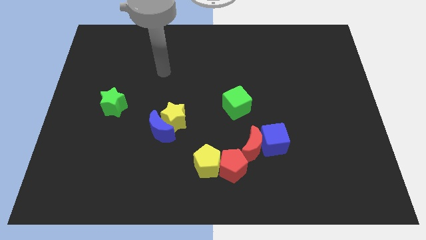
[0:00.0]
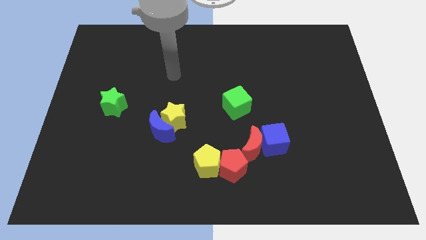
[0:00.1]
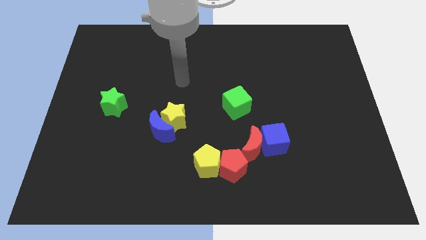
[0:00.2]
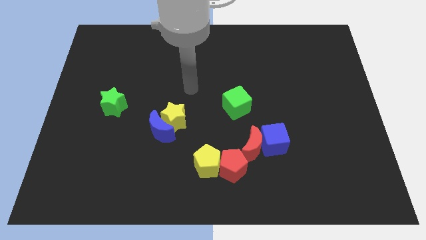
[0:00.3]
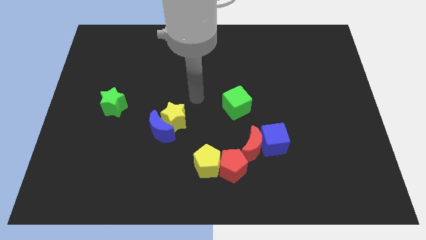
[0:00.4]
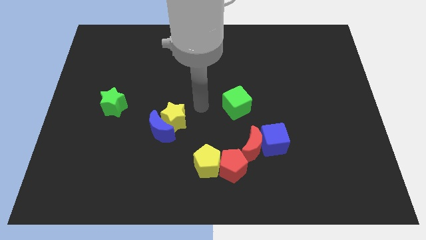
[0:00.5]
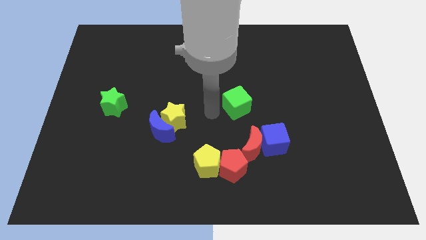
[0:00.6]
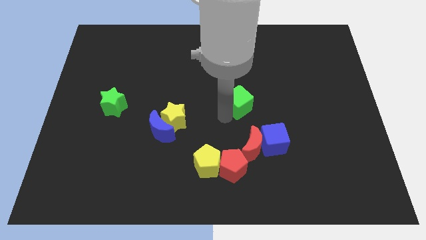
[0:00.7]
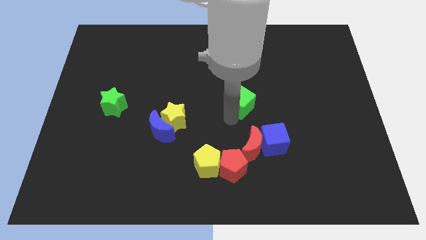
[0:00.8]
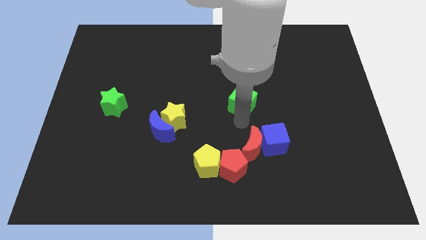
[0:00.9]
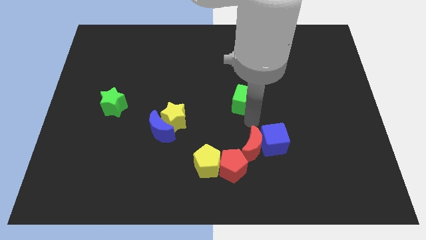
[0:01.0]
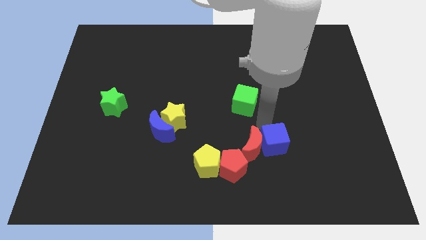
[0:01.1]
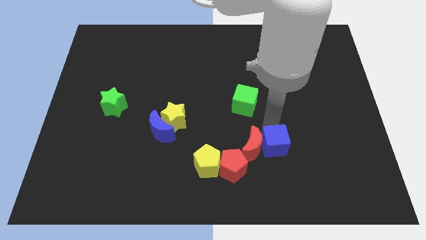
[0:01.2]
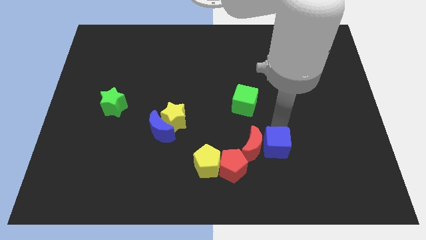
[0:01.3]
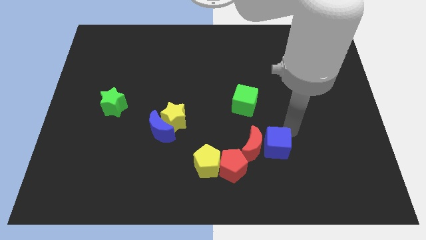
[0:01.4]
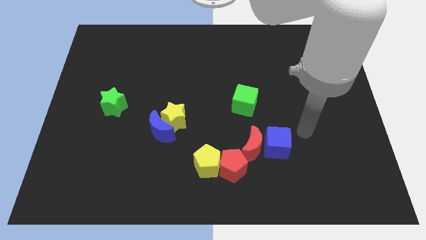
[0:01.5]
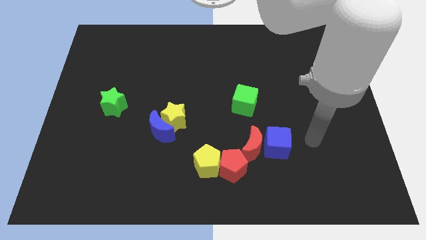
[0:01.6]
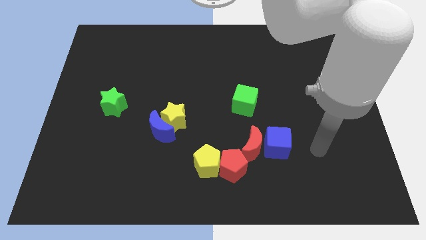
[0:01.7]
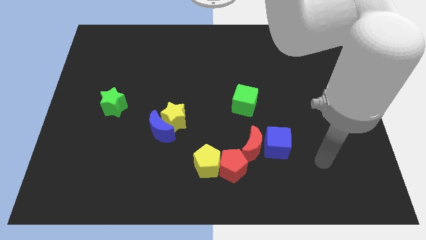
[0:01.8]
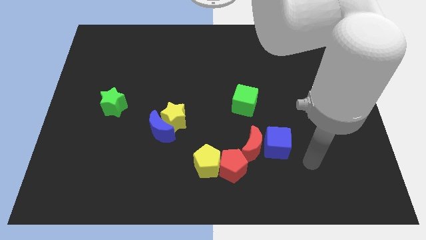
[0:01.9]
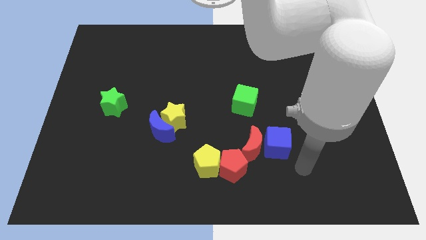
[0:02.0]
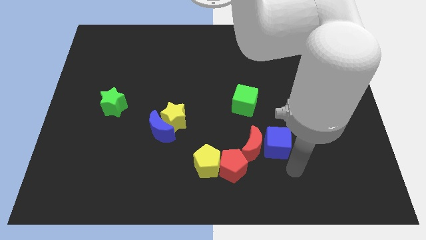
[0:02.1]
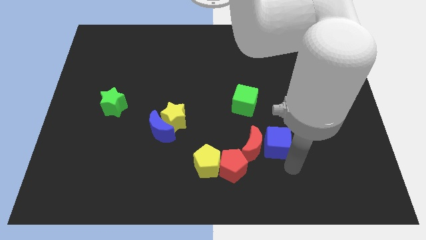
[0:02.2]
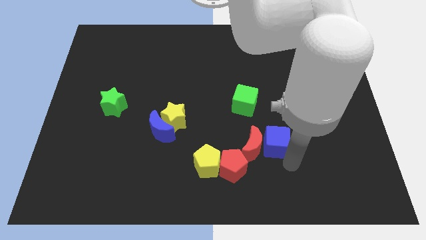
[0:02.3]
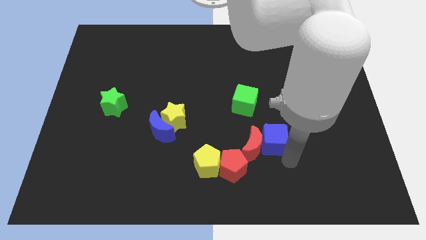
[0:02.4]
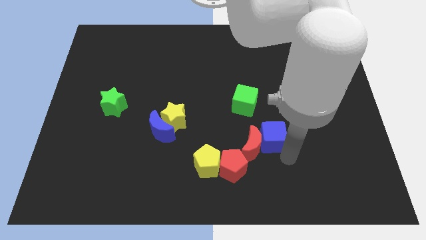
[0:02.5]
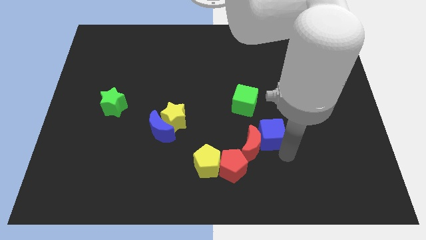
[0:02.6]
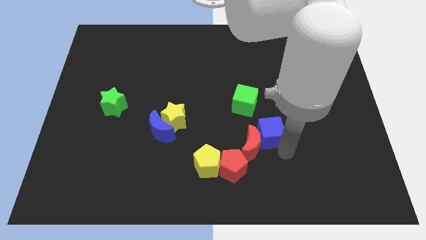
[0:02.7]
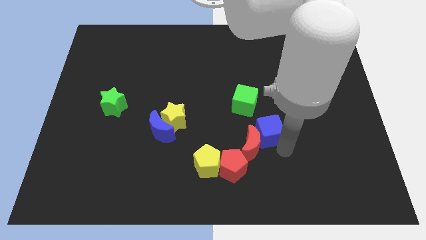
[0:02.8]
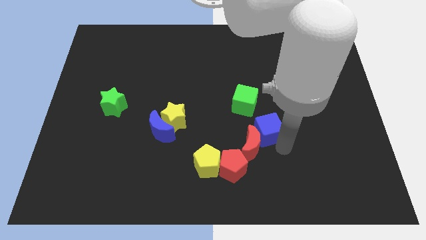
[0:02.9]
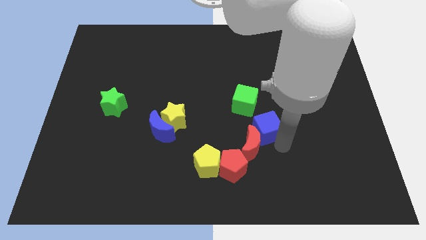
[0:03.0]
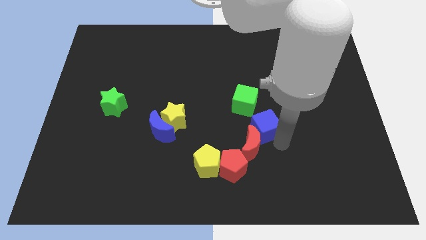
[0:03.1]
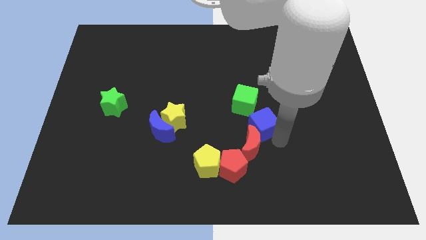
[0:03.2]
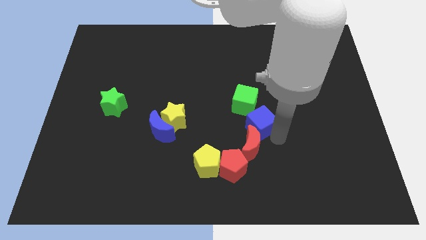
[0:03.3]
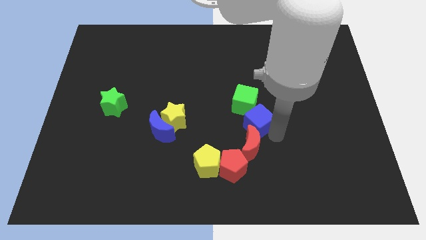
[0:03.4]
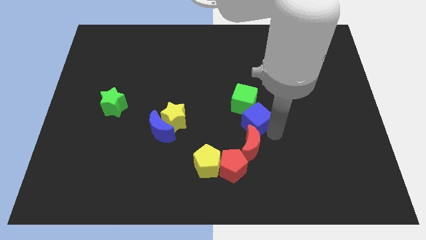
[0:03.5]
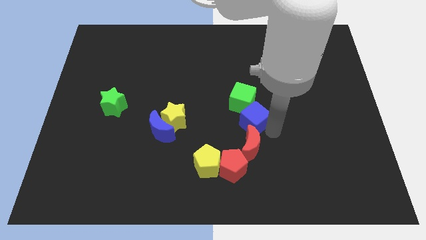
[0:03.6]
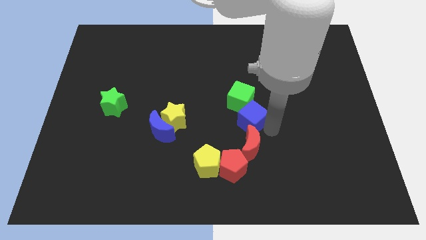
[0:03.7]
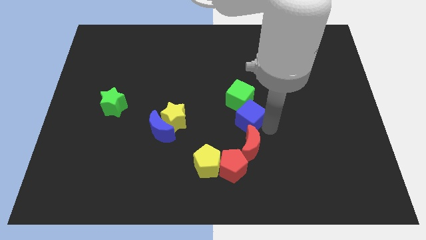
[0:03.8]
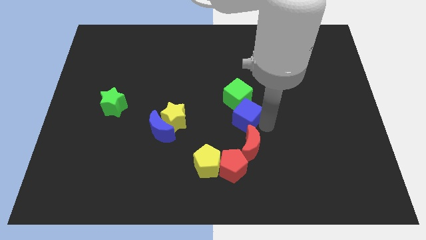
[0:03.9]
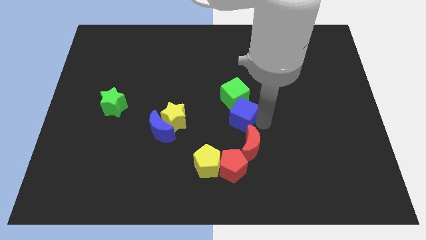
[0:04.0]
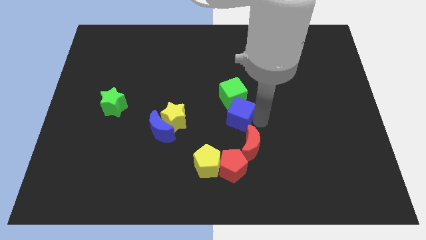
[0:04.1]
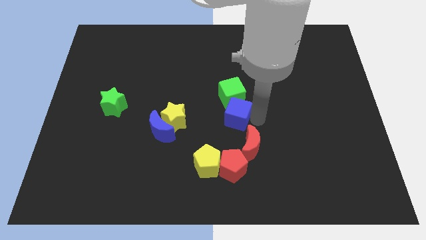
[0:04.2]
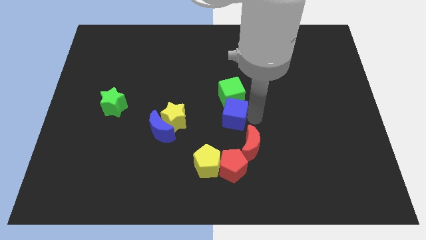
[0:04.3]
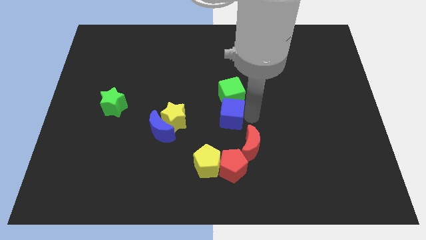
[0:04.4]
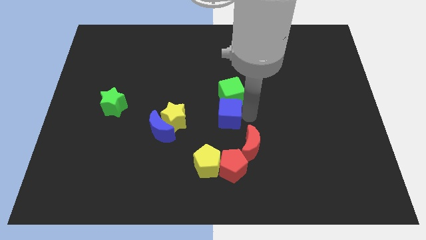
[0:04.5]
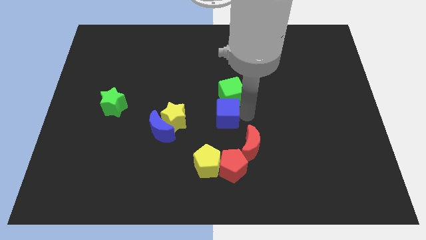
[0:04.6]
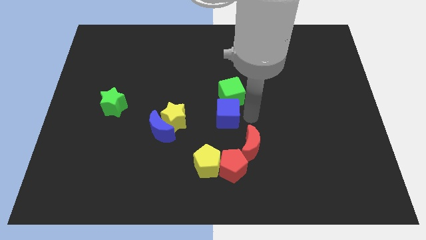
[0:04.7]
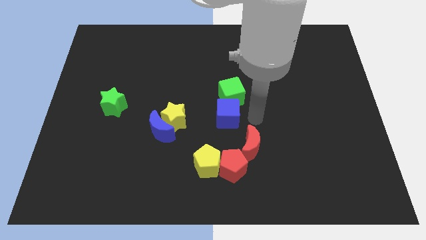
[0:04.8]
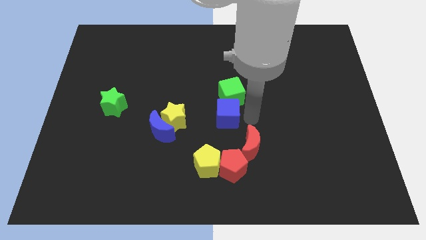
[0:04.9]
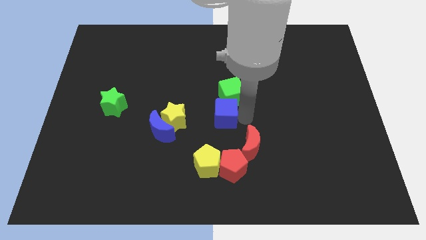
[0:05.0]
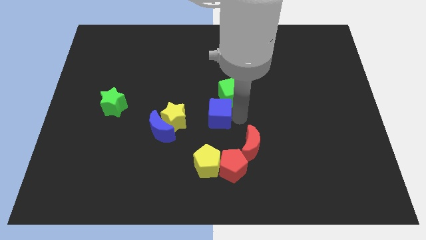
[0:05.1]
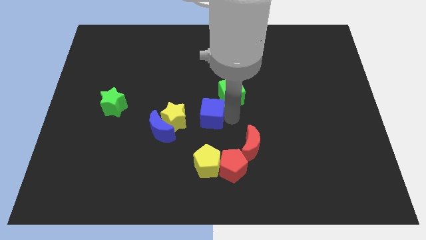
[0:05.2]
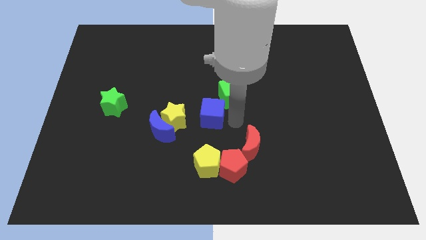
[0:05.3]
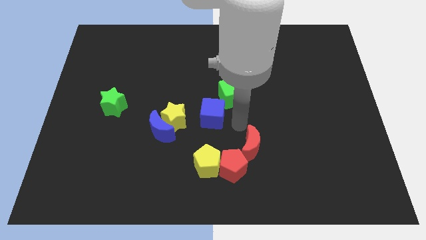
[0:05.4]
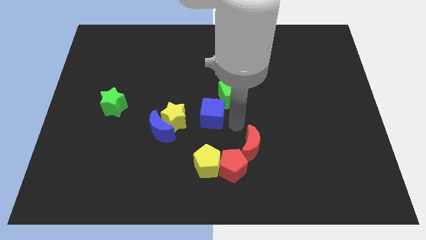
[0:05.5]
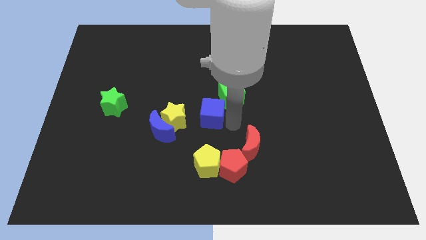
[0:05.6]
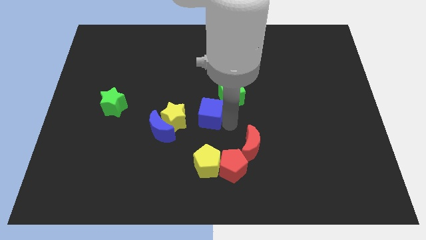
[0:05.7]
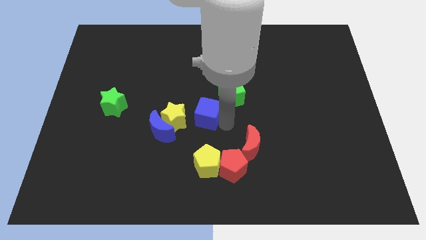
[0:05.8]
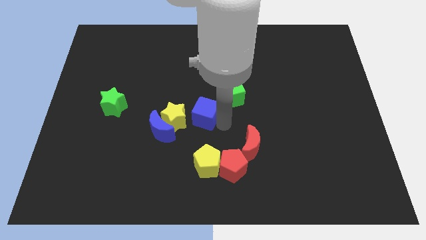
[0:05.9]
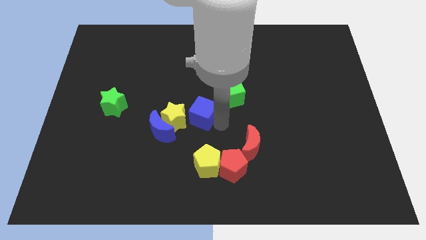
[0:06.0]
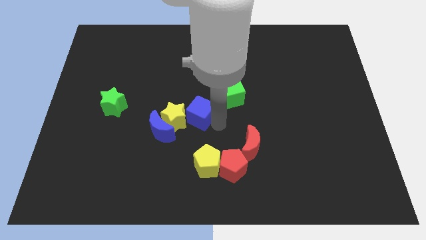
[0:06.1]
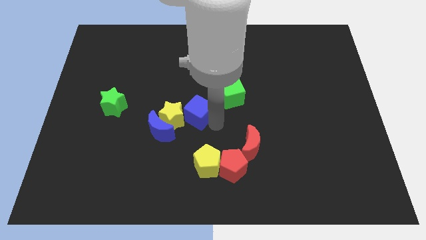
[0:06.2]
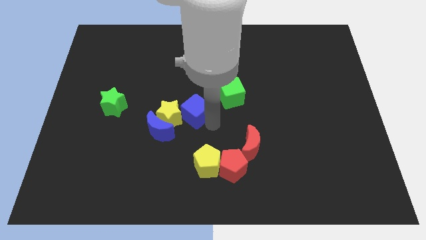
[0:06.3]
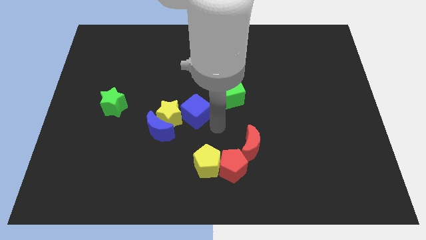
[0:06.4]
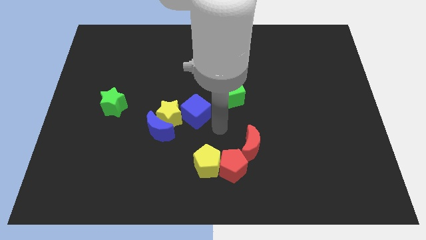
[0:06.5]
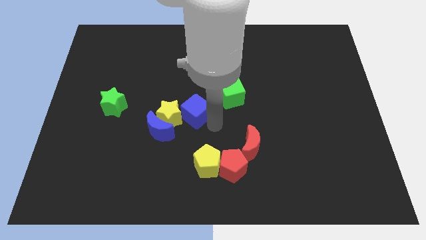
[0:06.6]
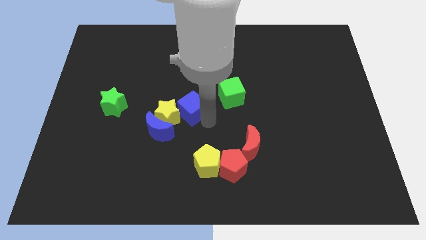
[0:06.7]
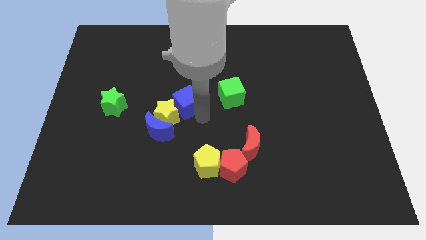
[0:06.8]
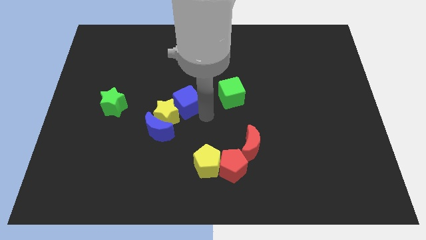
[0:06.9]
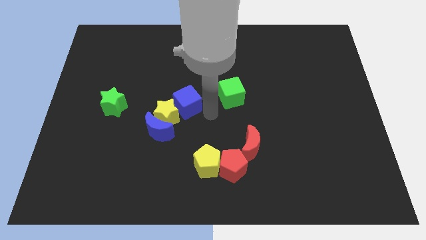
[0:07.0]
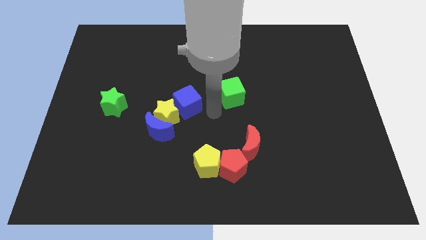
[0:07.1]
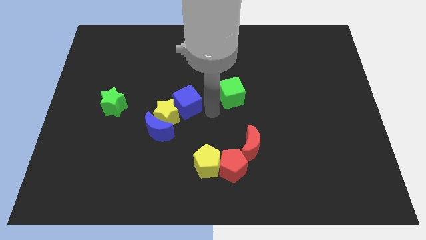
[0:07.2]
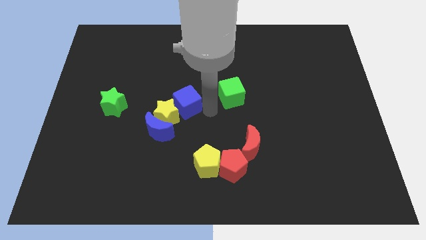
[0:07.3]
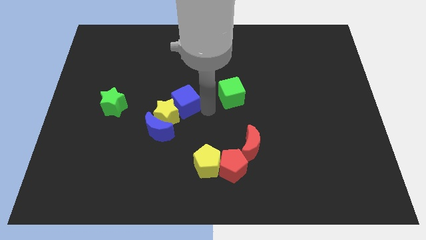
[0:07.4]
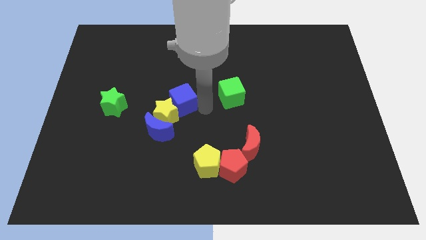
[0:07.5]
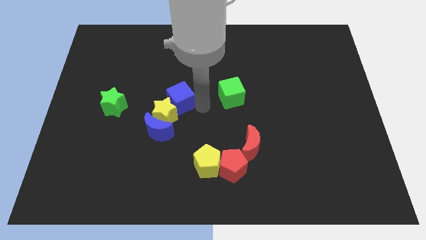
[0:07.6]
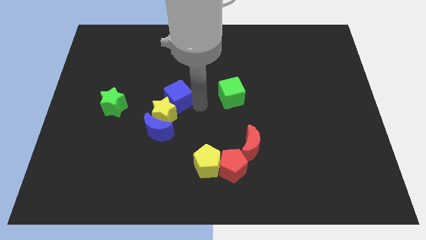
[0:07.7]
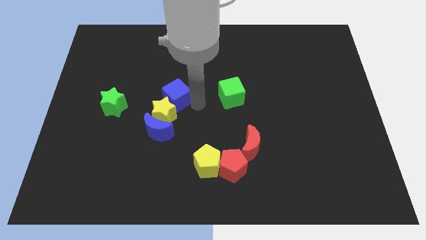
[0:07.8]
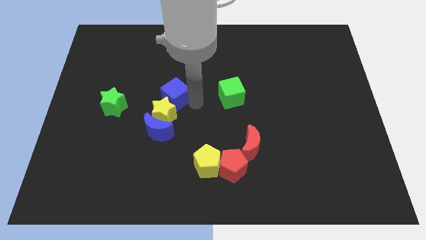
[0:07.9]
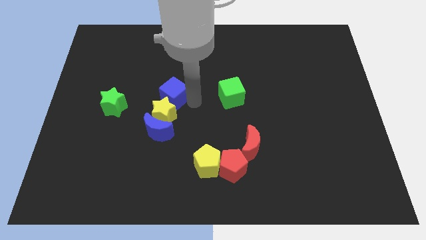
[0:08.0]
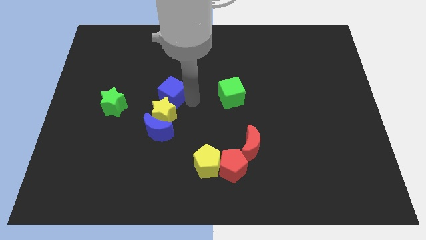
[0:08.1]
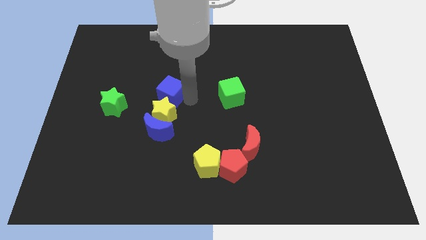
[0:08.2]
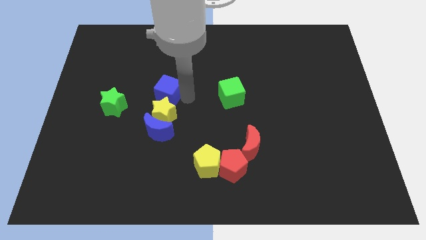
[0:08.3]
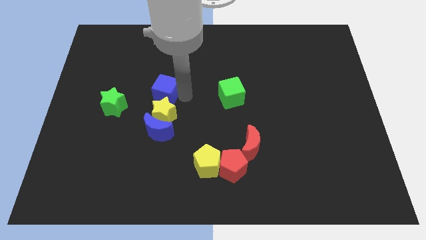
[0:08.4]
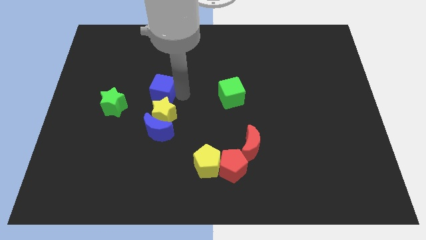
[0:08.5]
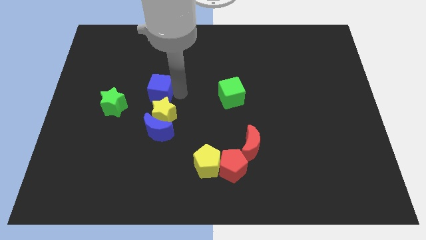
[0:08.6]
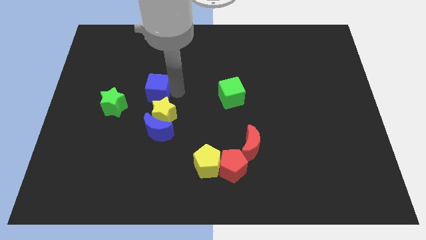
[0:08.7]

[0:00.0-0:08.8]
move the blue cube to the top right of the green star
